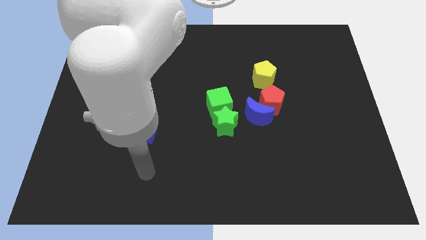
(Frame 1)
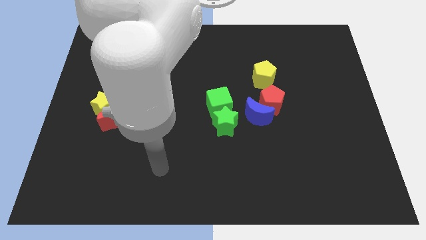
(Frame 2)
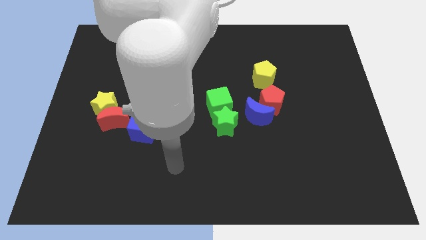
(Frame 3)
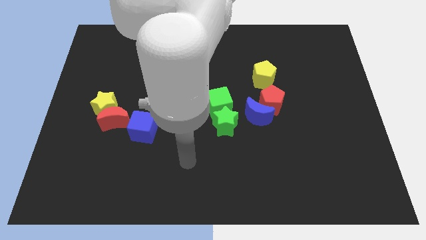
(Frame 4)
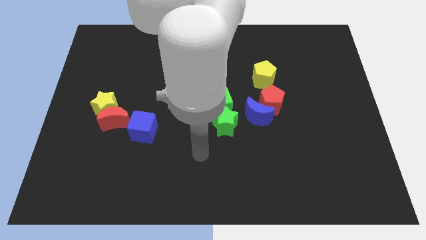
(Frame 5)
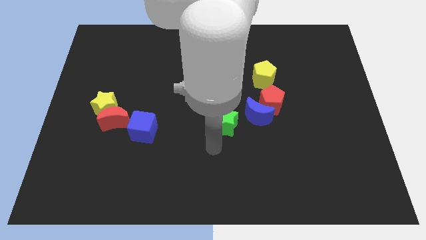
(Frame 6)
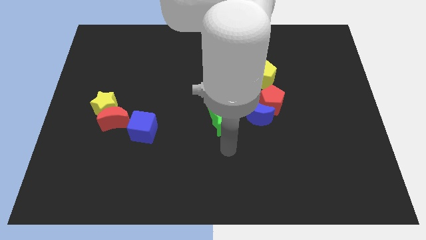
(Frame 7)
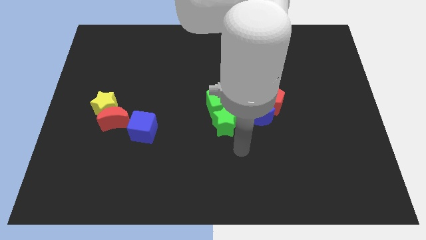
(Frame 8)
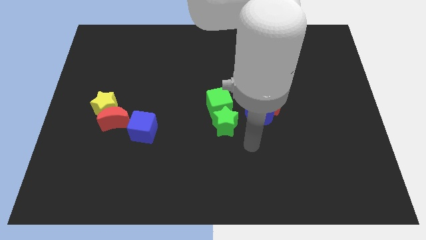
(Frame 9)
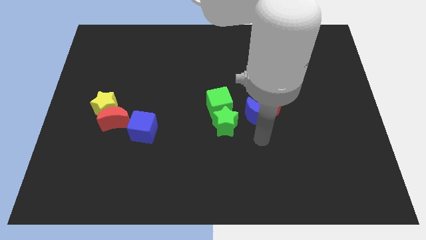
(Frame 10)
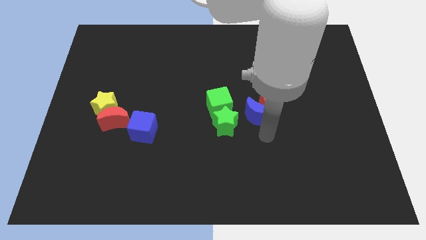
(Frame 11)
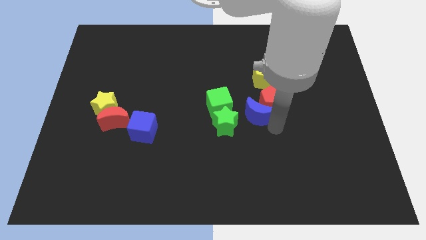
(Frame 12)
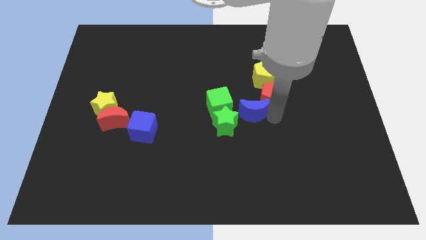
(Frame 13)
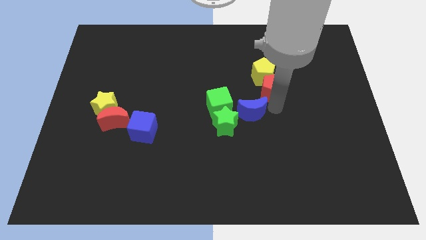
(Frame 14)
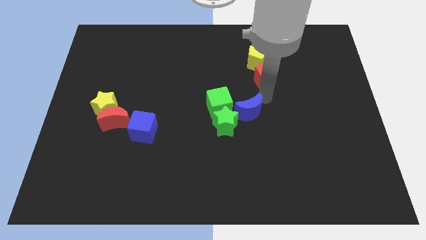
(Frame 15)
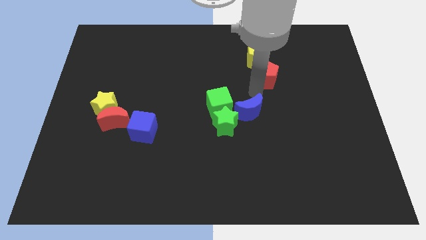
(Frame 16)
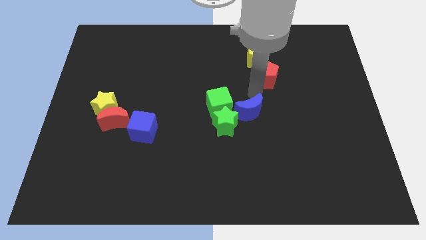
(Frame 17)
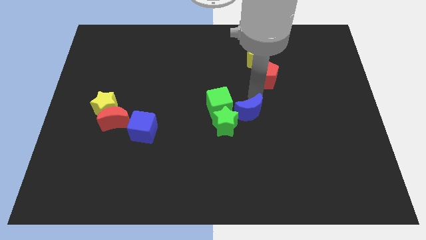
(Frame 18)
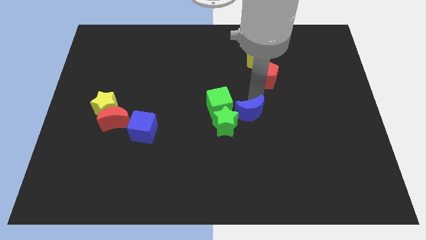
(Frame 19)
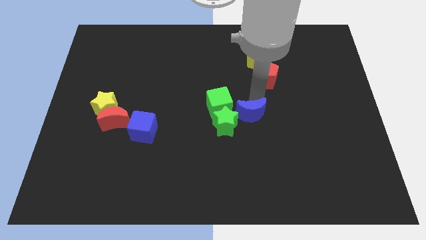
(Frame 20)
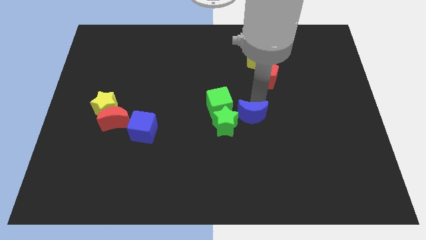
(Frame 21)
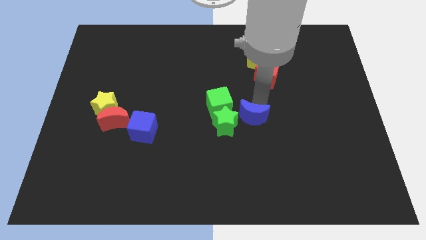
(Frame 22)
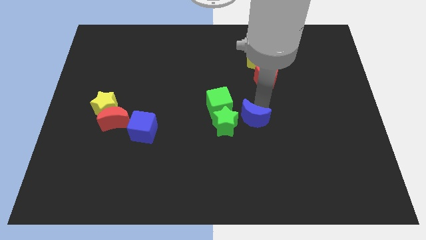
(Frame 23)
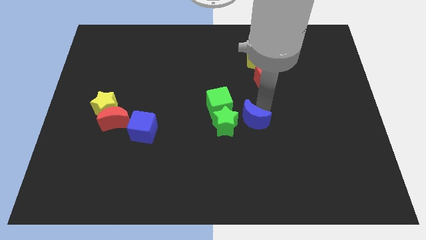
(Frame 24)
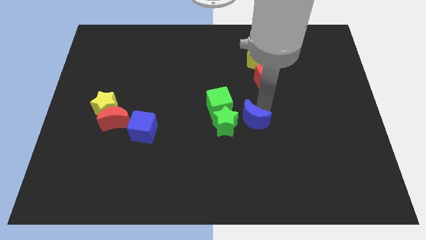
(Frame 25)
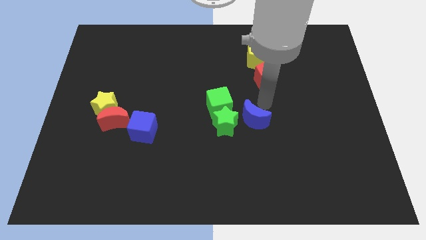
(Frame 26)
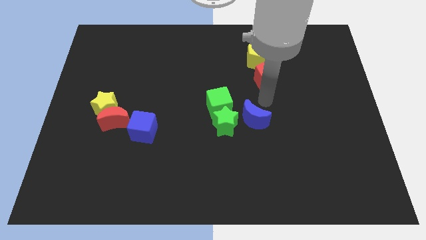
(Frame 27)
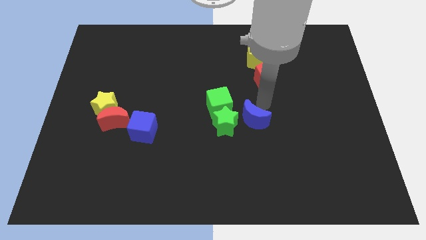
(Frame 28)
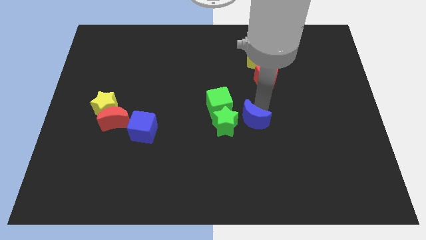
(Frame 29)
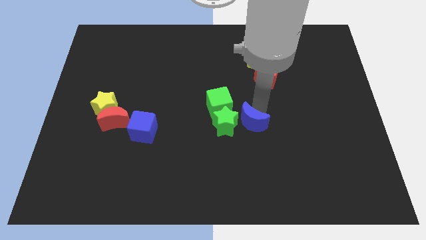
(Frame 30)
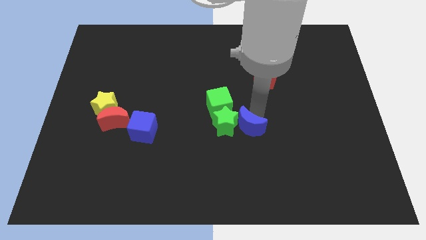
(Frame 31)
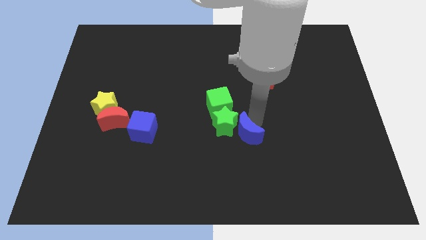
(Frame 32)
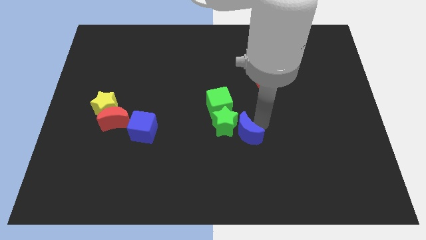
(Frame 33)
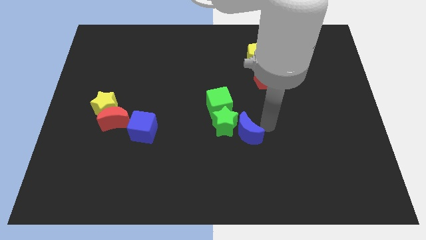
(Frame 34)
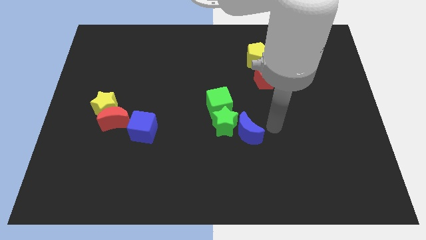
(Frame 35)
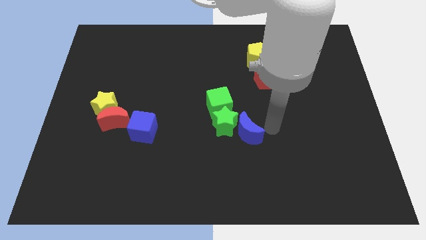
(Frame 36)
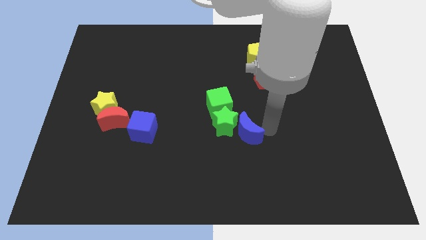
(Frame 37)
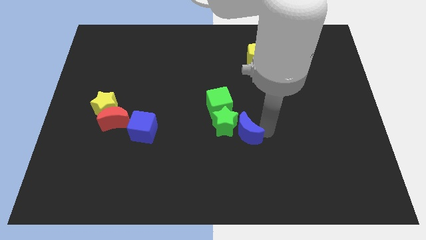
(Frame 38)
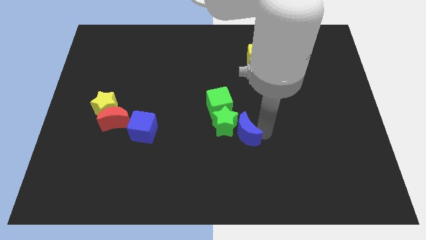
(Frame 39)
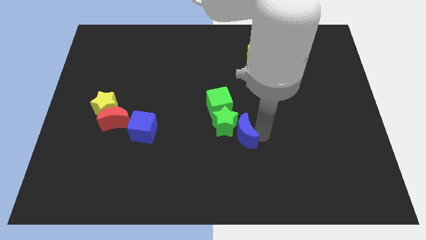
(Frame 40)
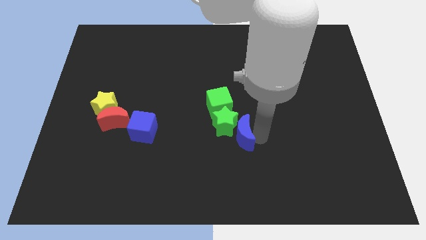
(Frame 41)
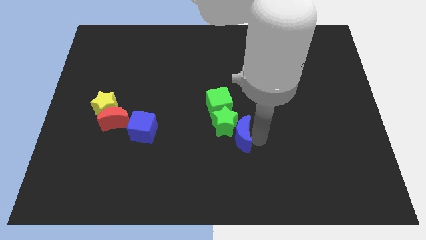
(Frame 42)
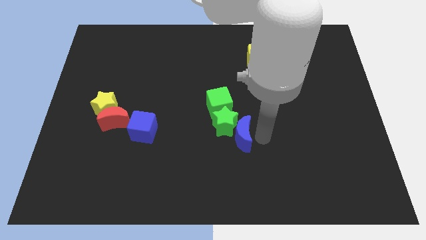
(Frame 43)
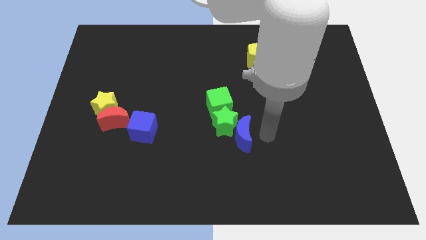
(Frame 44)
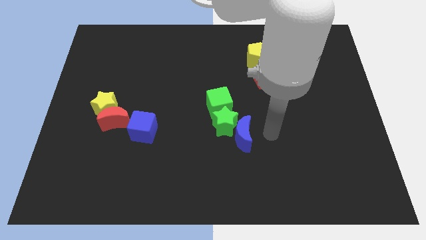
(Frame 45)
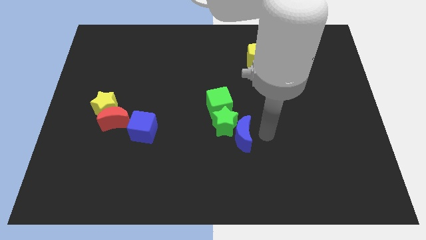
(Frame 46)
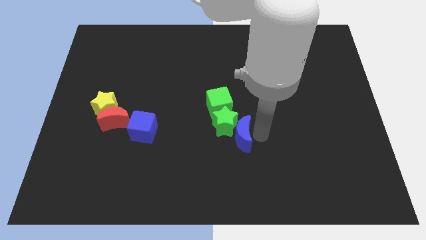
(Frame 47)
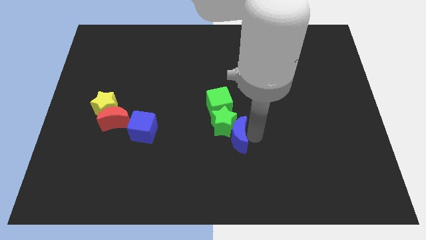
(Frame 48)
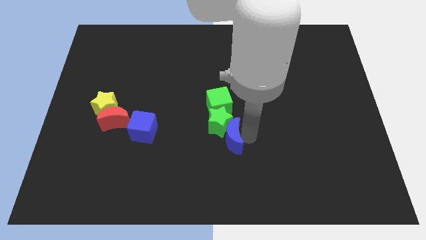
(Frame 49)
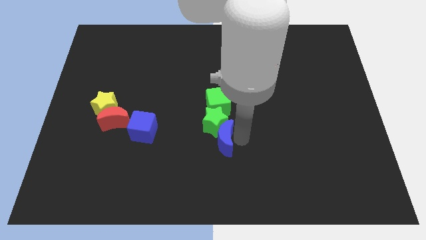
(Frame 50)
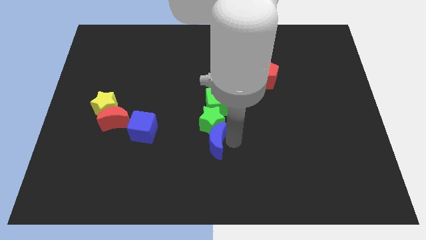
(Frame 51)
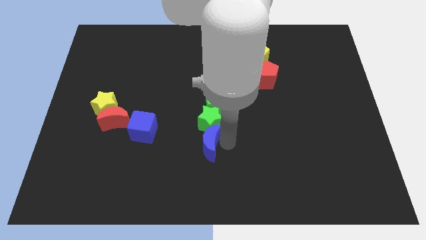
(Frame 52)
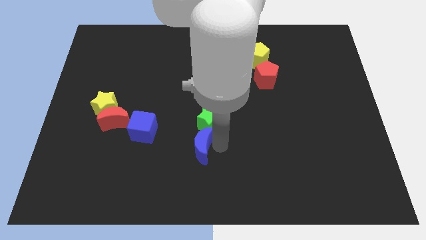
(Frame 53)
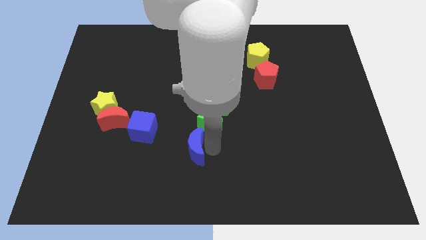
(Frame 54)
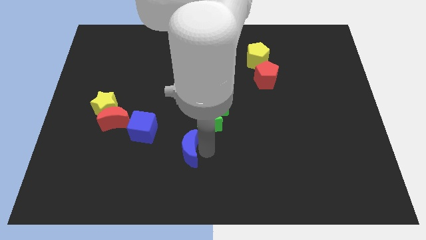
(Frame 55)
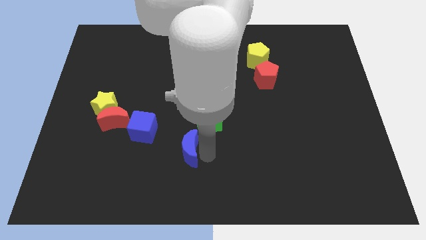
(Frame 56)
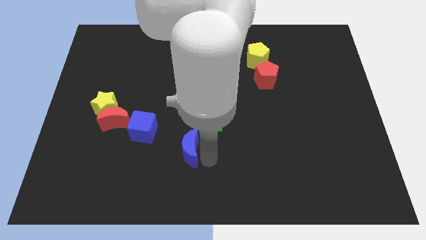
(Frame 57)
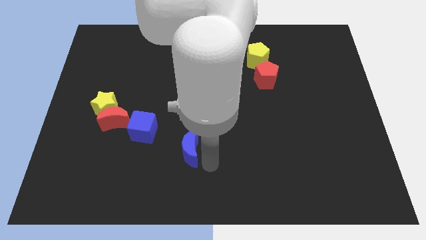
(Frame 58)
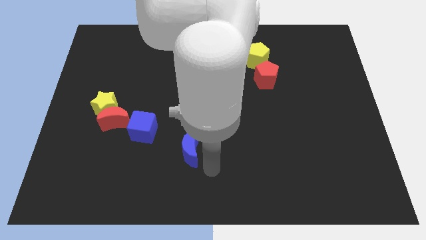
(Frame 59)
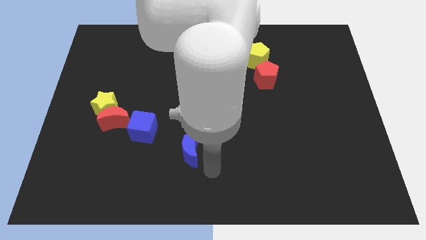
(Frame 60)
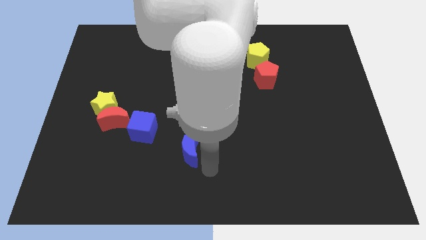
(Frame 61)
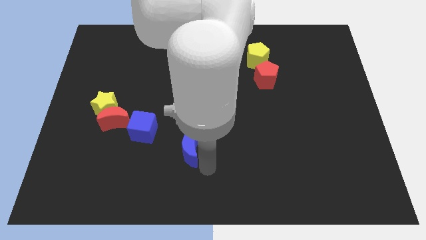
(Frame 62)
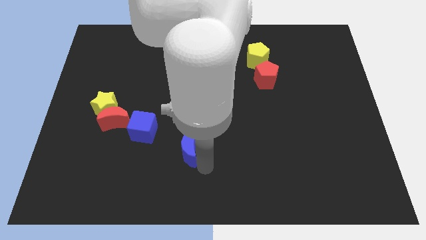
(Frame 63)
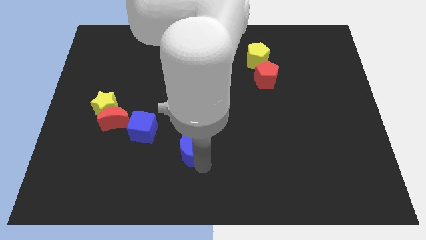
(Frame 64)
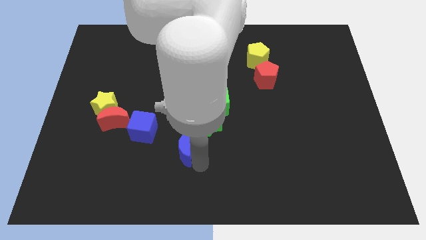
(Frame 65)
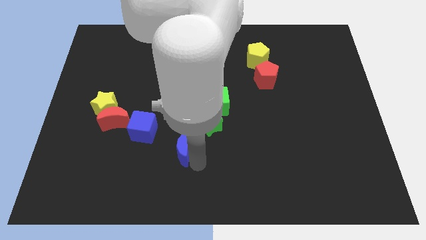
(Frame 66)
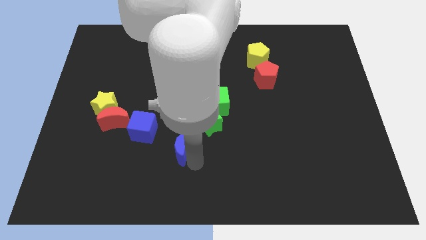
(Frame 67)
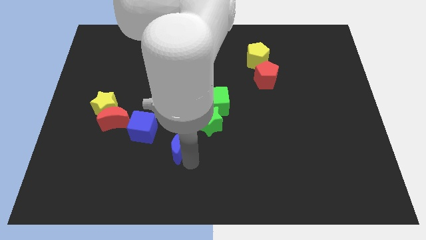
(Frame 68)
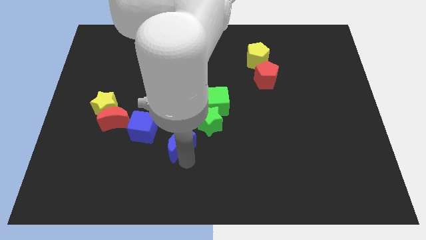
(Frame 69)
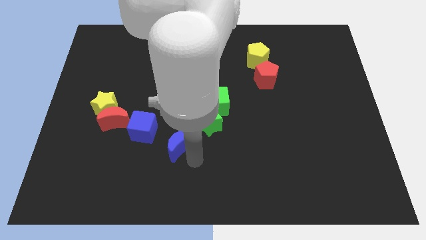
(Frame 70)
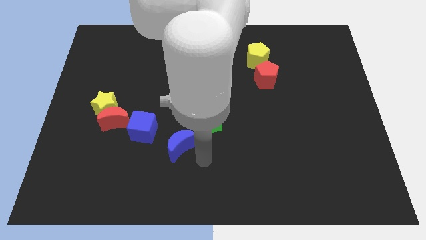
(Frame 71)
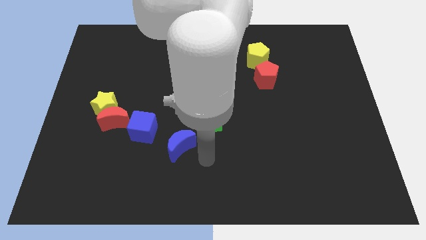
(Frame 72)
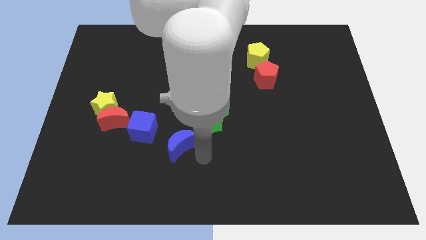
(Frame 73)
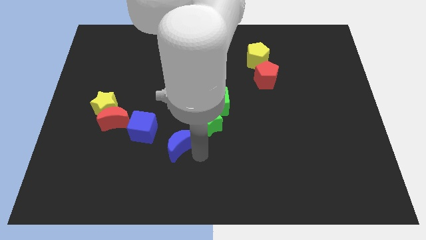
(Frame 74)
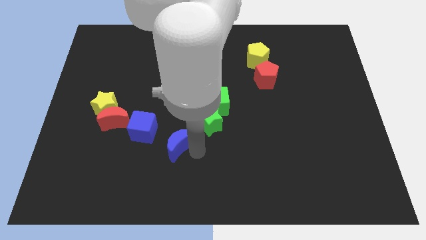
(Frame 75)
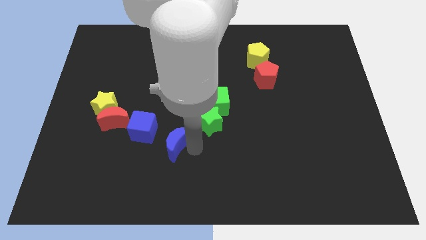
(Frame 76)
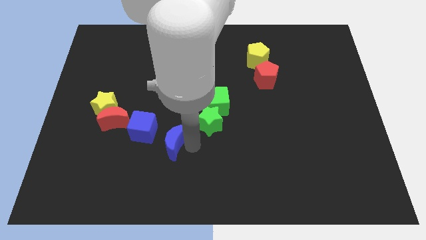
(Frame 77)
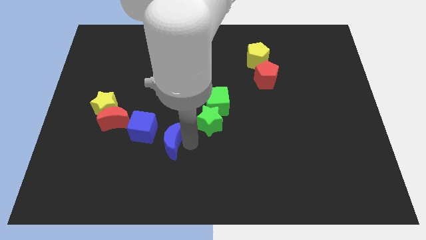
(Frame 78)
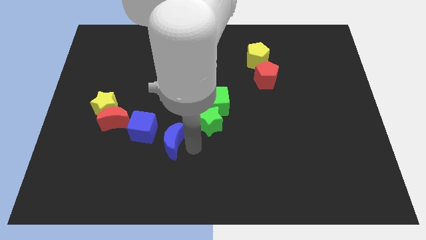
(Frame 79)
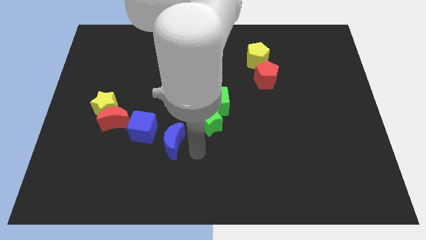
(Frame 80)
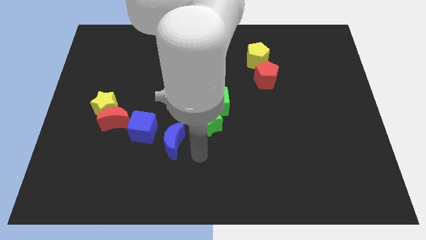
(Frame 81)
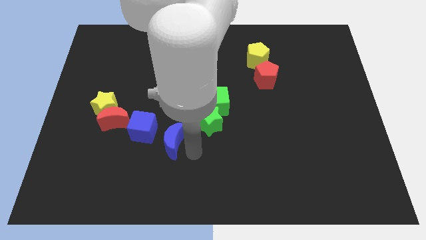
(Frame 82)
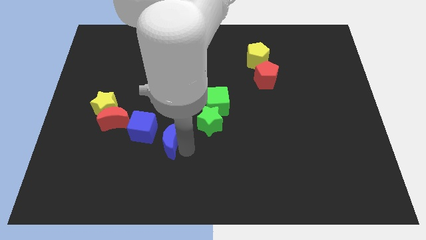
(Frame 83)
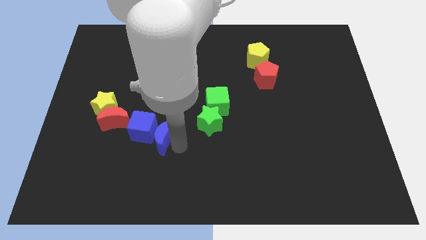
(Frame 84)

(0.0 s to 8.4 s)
move the blue moon next to the blue cube
